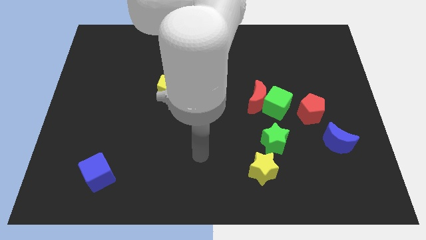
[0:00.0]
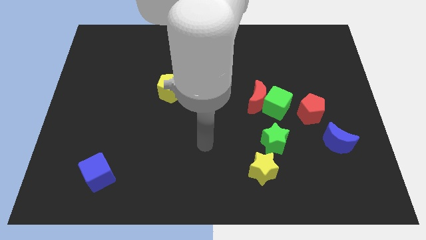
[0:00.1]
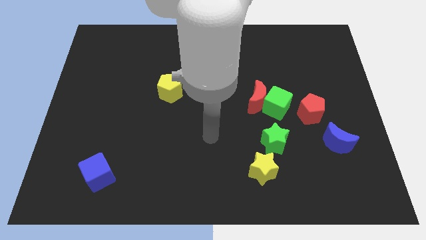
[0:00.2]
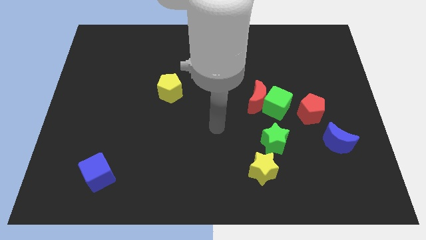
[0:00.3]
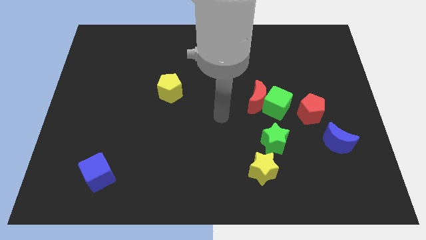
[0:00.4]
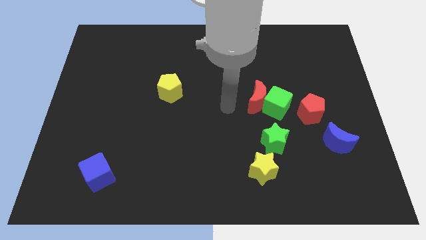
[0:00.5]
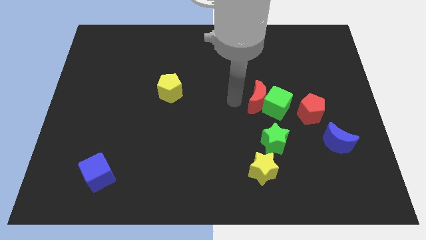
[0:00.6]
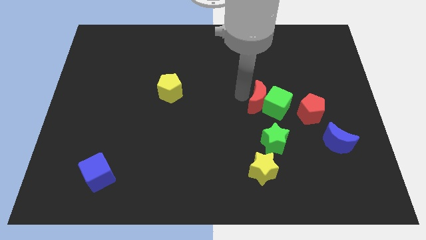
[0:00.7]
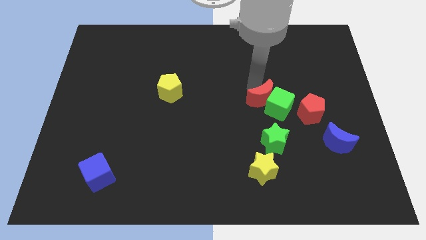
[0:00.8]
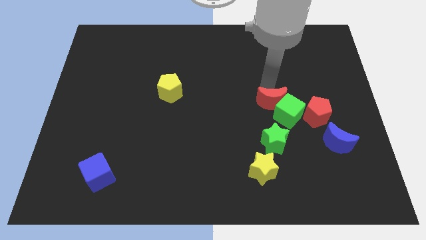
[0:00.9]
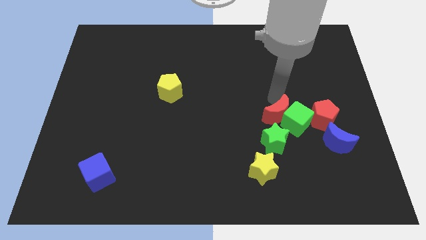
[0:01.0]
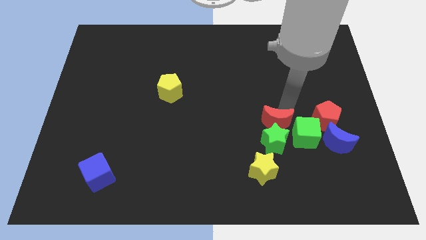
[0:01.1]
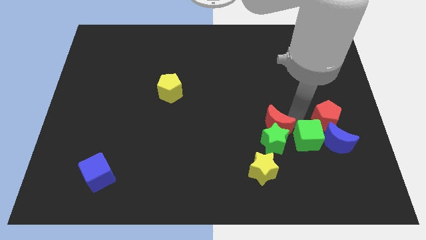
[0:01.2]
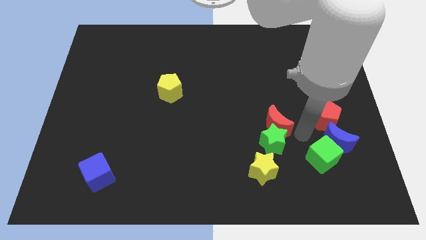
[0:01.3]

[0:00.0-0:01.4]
pull the red moon apart from the green cube

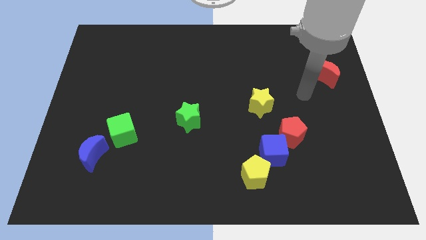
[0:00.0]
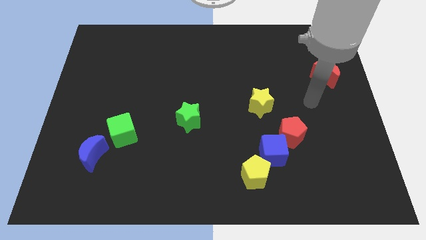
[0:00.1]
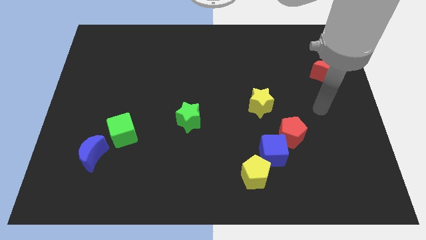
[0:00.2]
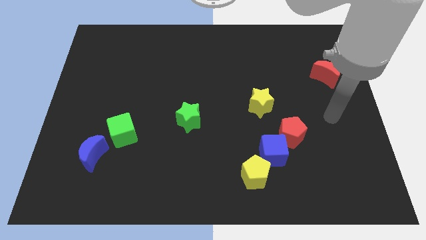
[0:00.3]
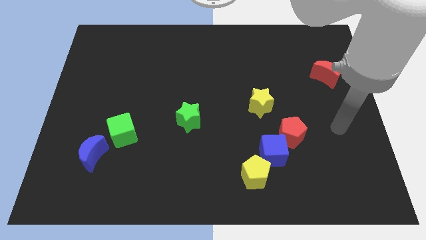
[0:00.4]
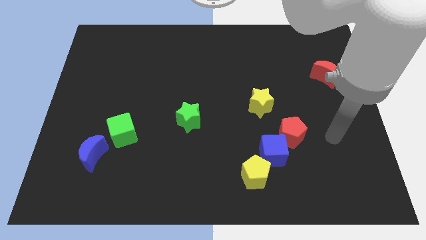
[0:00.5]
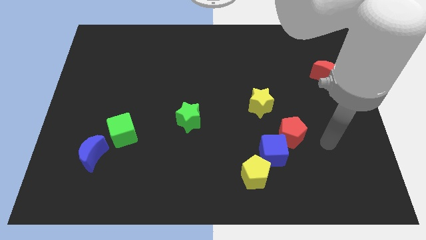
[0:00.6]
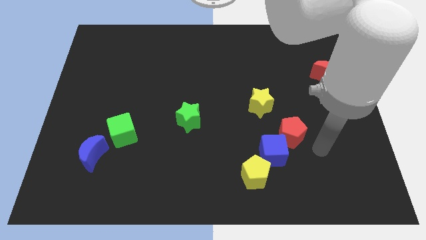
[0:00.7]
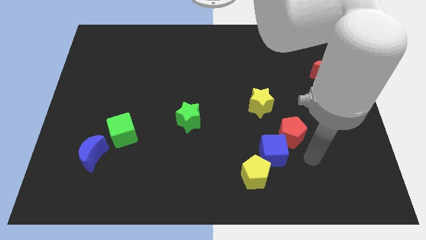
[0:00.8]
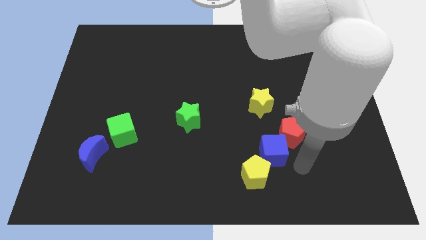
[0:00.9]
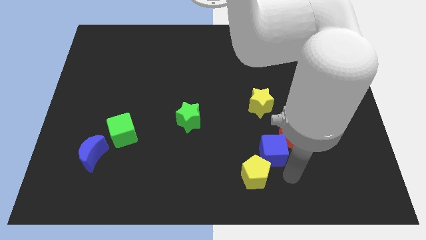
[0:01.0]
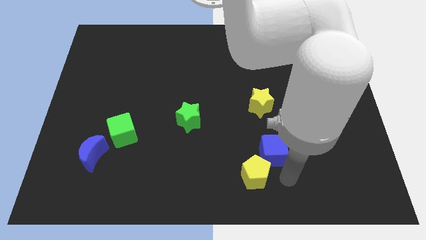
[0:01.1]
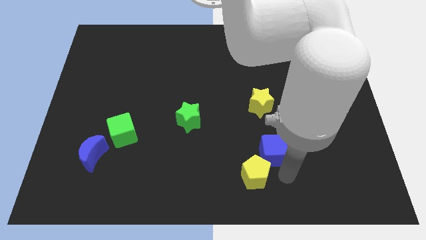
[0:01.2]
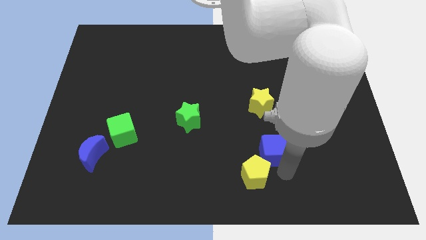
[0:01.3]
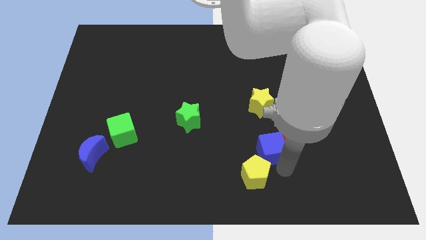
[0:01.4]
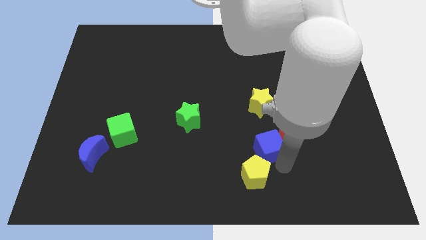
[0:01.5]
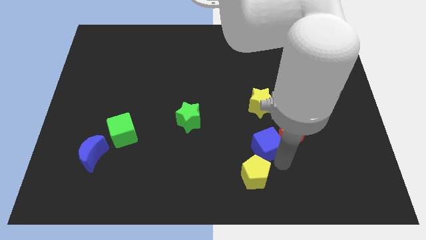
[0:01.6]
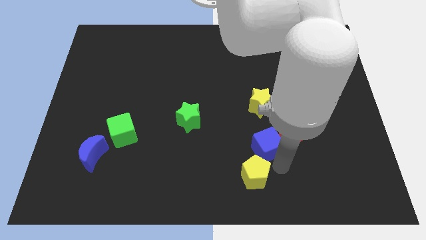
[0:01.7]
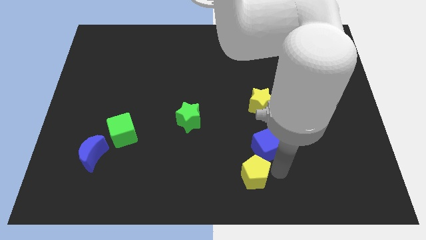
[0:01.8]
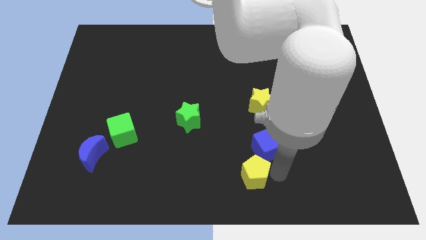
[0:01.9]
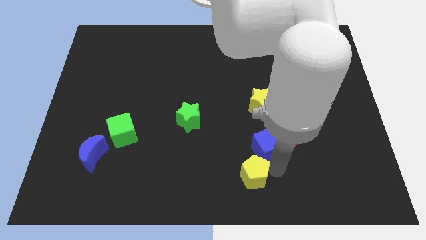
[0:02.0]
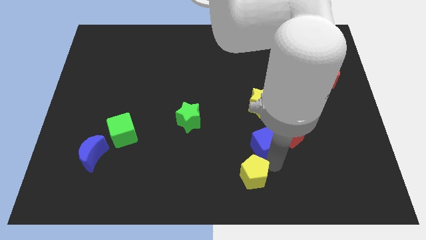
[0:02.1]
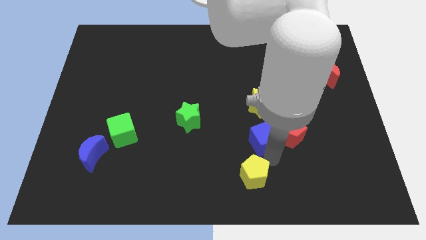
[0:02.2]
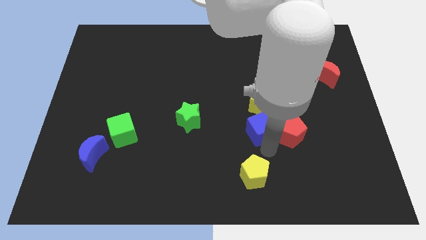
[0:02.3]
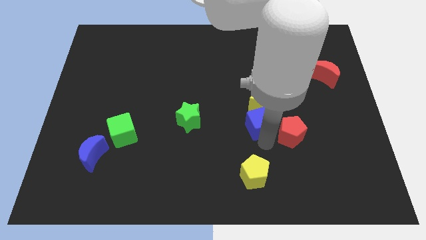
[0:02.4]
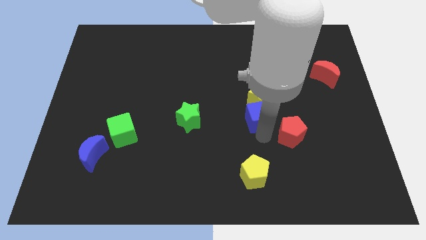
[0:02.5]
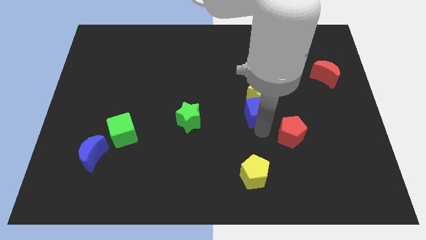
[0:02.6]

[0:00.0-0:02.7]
separate the blue cube from the red pentagon and yellow pentagon

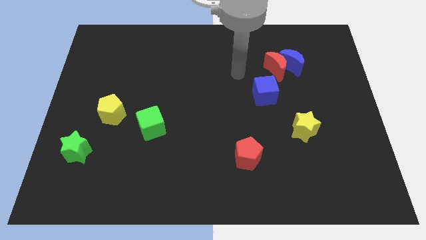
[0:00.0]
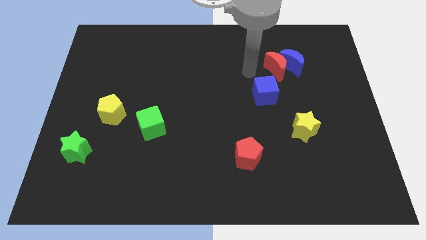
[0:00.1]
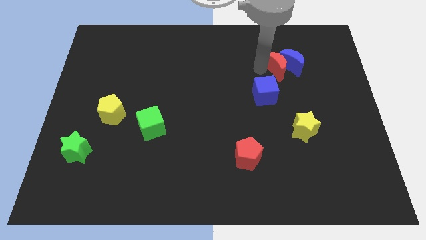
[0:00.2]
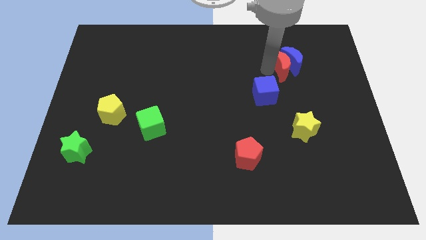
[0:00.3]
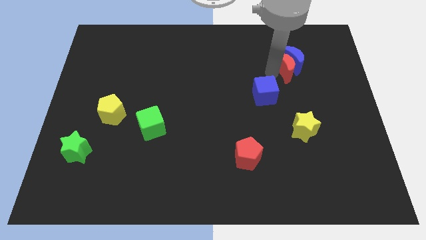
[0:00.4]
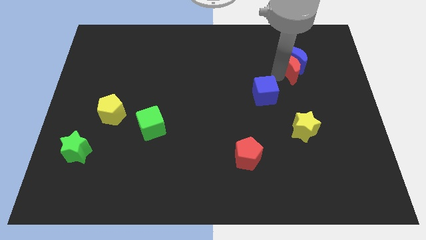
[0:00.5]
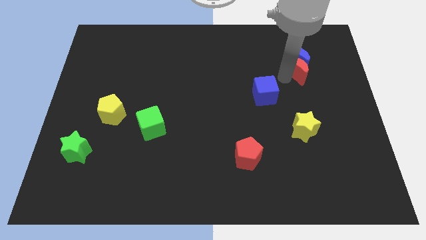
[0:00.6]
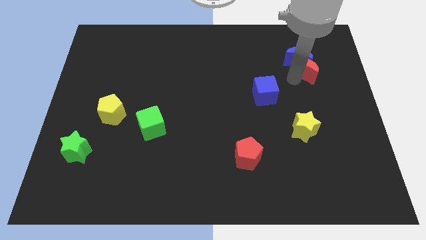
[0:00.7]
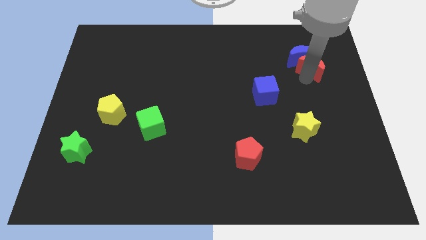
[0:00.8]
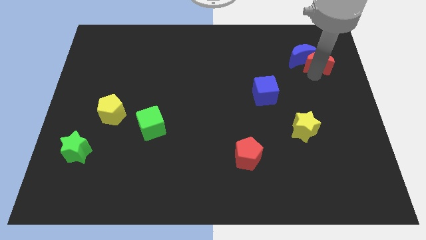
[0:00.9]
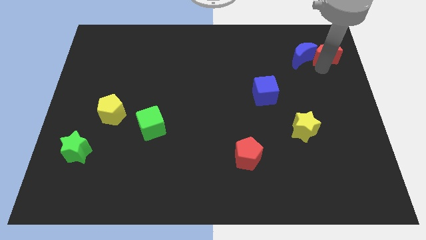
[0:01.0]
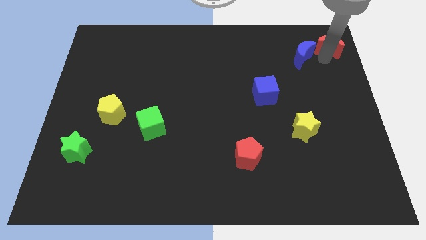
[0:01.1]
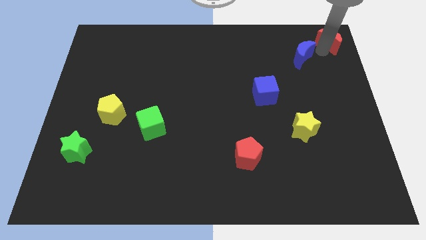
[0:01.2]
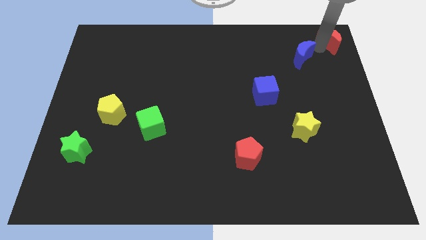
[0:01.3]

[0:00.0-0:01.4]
pull the blue moon apart from the red moon

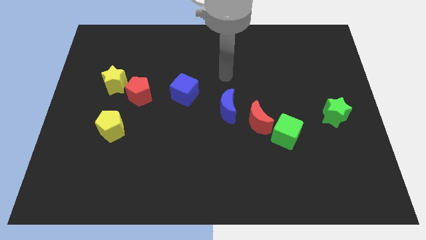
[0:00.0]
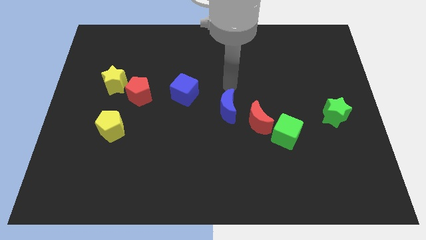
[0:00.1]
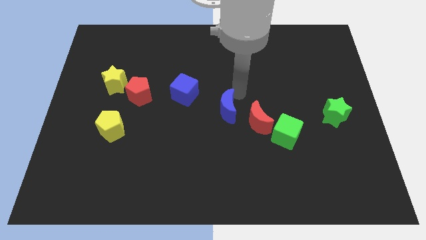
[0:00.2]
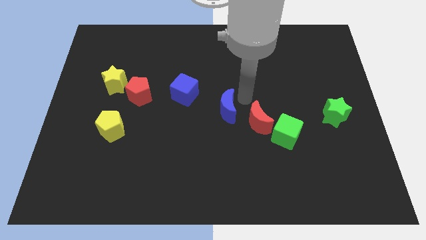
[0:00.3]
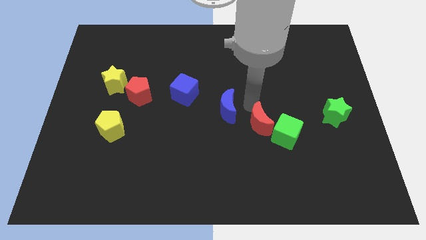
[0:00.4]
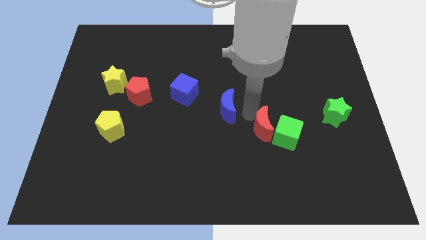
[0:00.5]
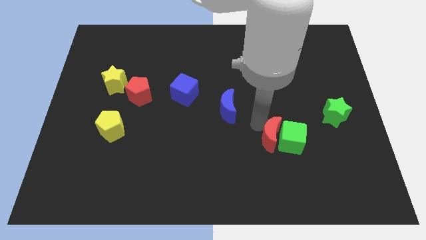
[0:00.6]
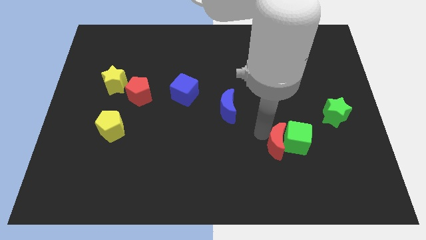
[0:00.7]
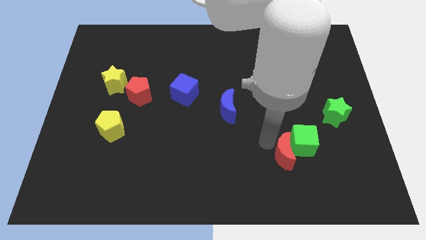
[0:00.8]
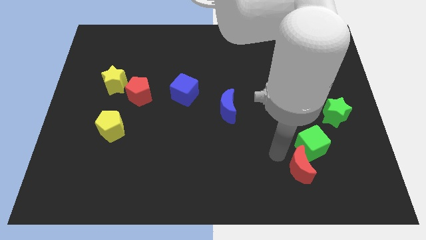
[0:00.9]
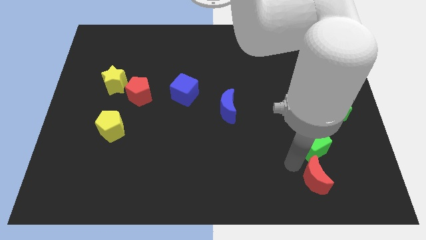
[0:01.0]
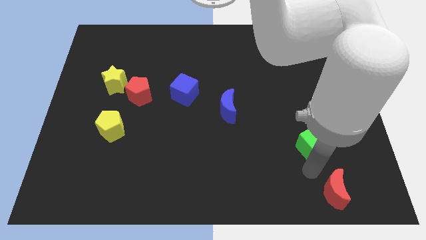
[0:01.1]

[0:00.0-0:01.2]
pull the green cube apart from the red moon

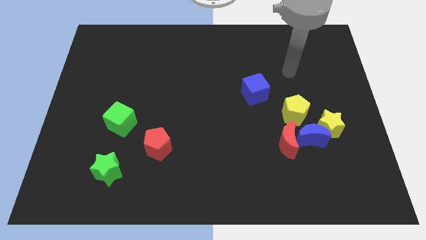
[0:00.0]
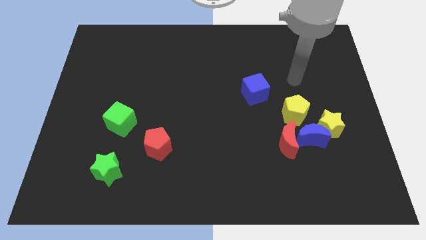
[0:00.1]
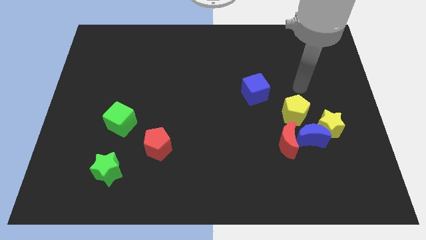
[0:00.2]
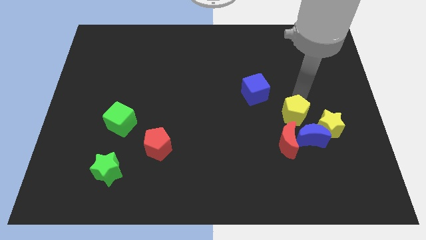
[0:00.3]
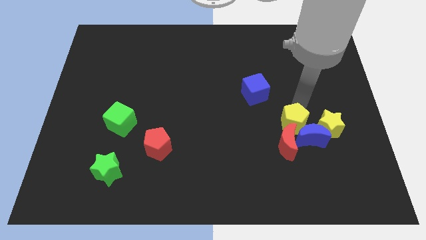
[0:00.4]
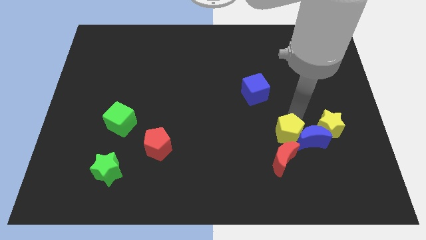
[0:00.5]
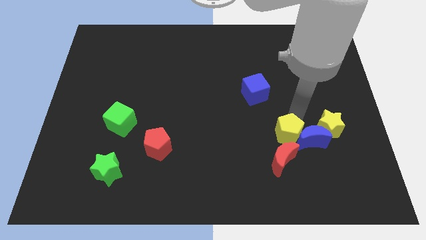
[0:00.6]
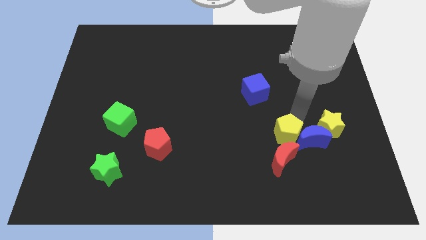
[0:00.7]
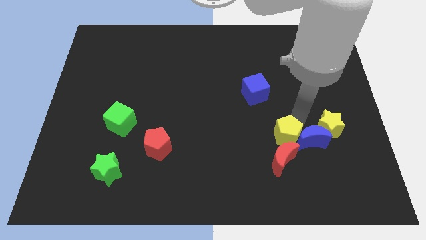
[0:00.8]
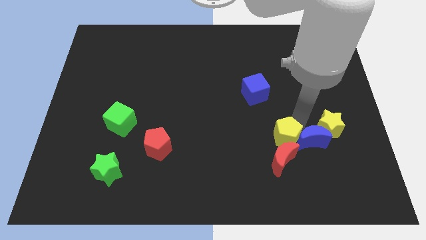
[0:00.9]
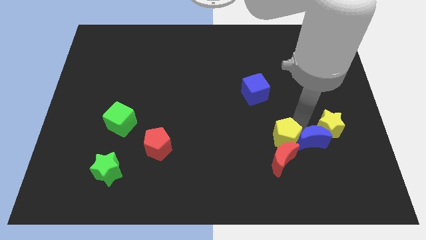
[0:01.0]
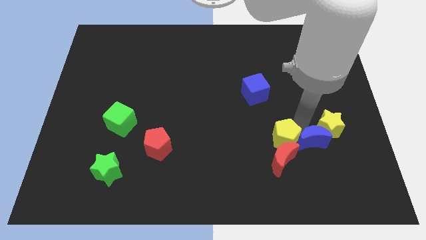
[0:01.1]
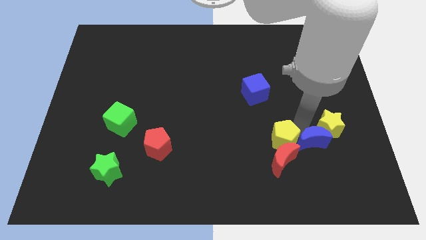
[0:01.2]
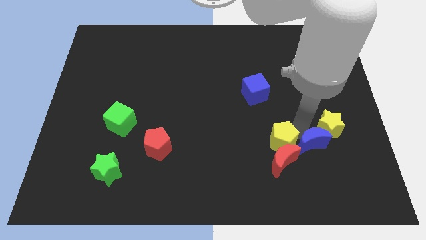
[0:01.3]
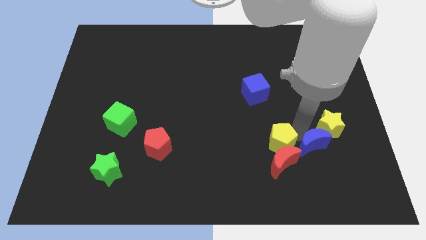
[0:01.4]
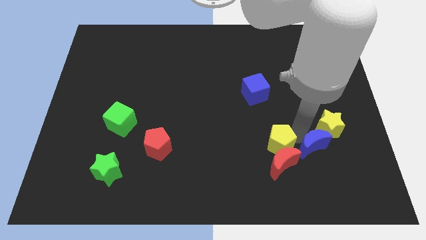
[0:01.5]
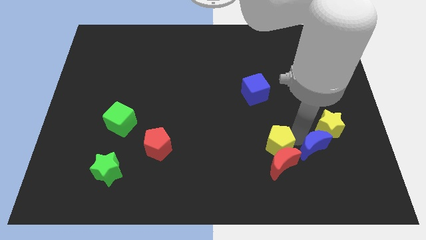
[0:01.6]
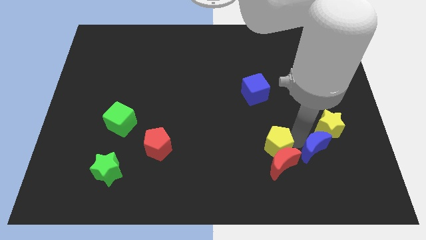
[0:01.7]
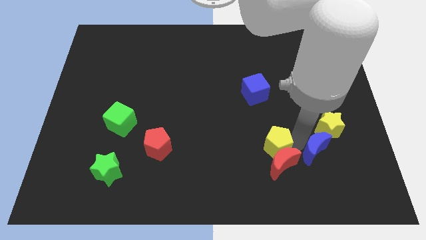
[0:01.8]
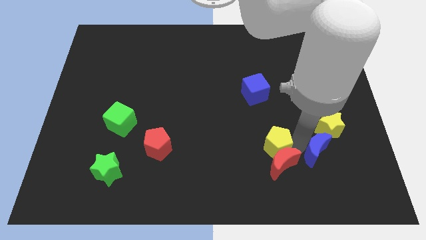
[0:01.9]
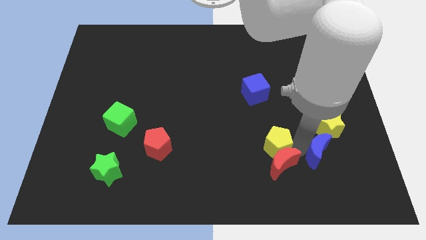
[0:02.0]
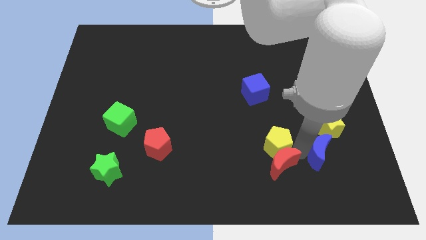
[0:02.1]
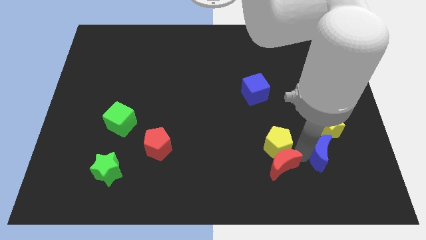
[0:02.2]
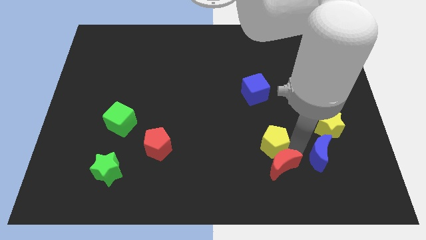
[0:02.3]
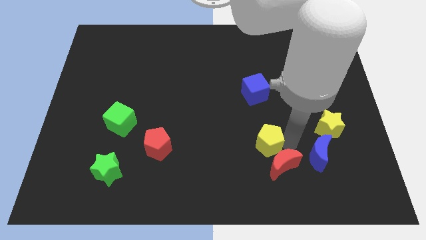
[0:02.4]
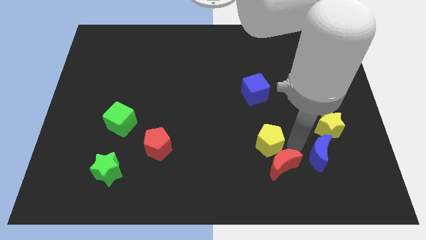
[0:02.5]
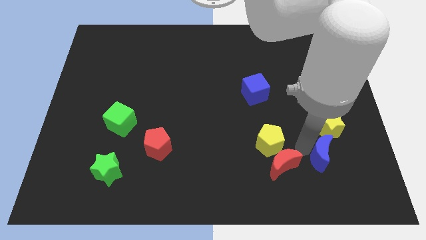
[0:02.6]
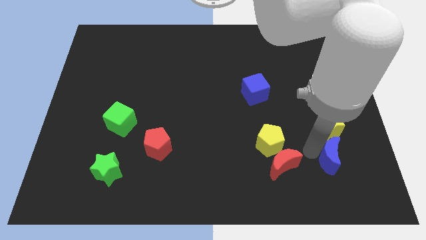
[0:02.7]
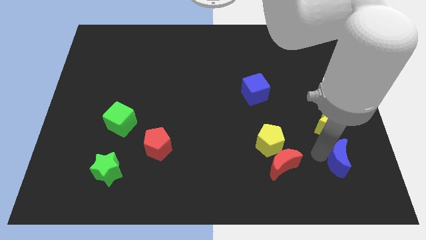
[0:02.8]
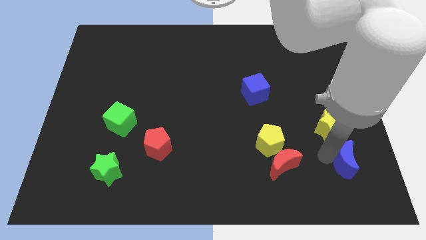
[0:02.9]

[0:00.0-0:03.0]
separate the blue moon from the clump
